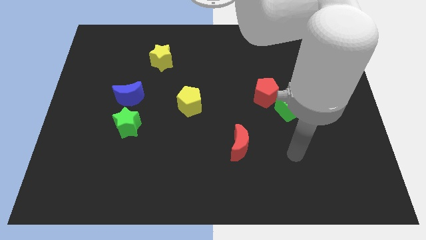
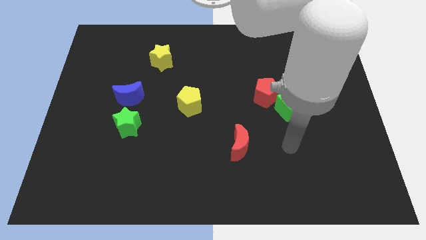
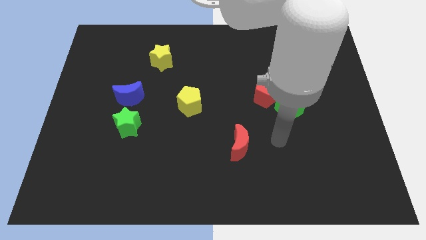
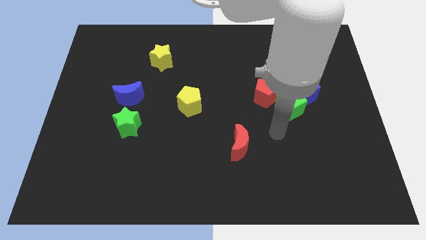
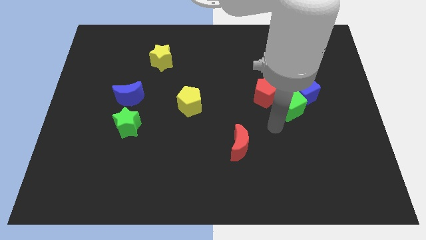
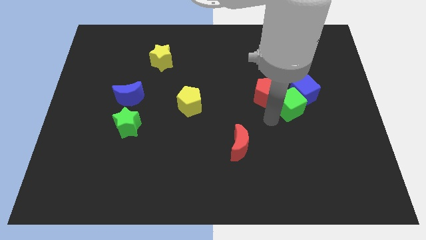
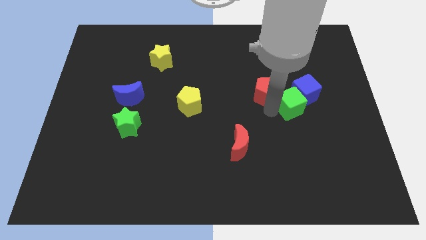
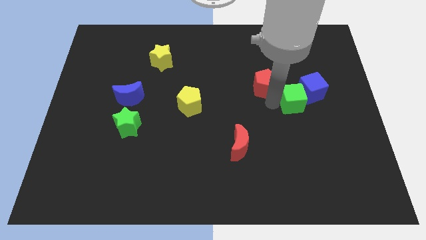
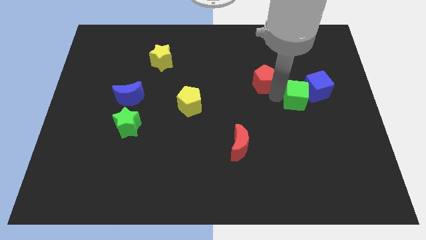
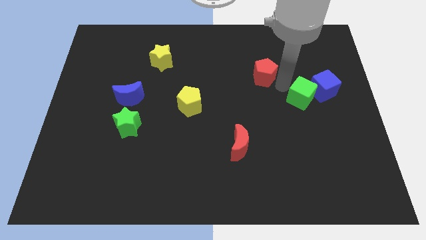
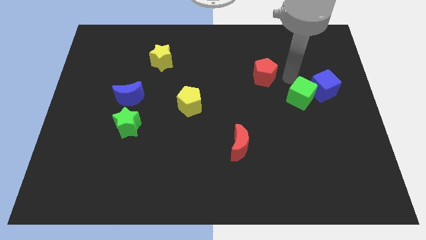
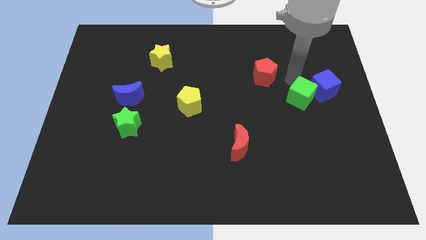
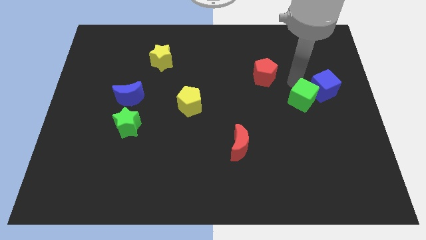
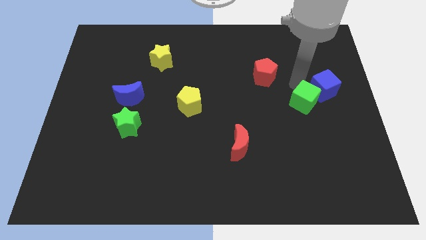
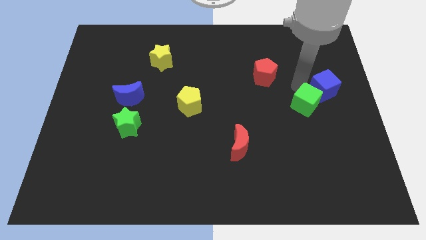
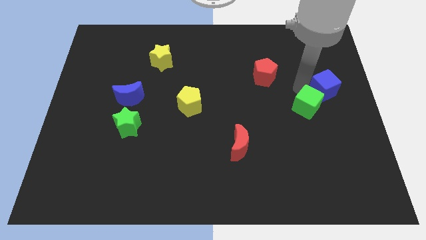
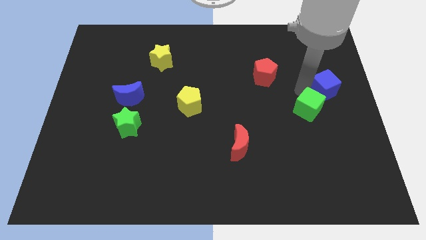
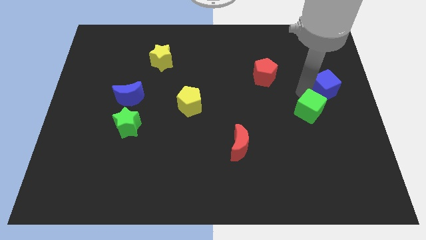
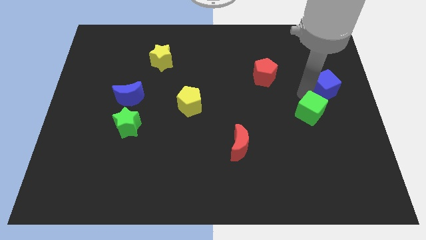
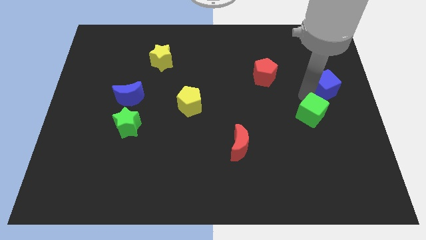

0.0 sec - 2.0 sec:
pull the green cube apart from the blue cube and red pentagon

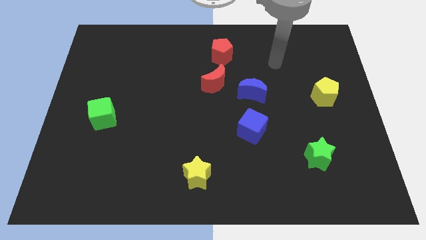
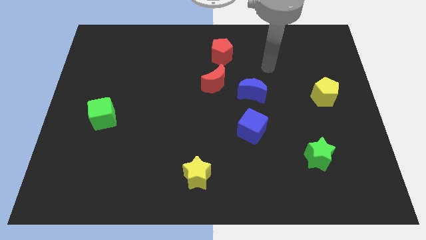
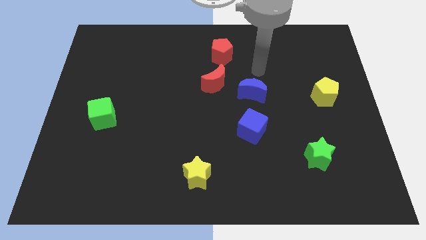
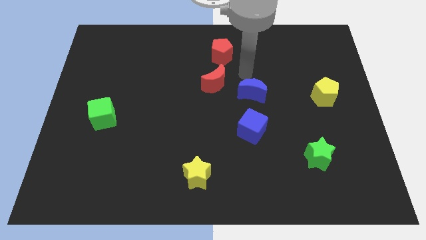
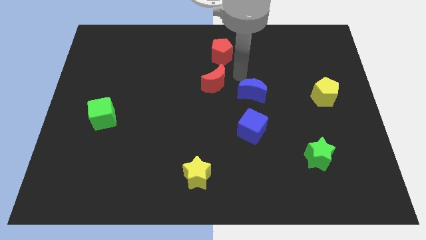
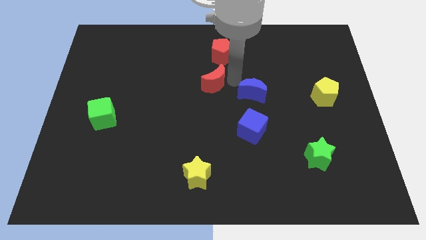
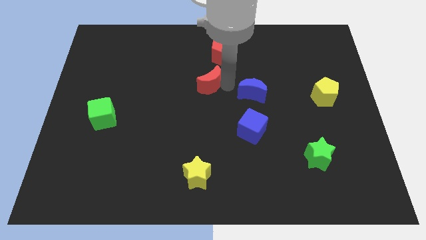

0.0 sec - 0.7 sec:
move the blue moon away from the red moon

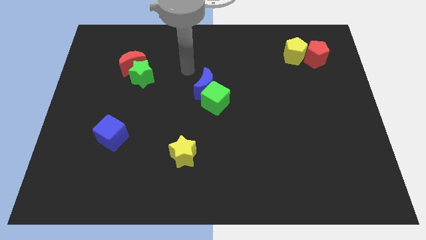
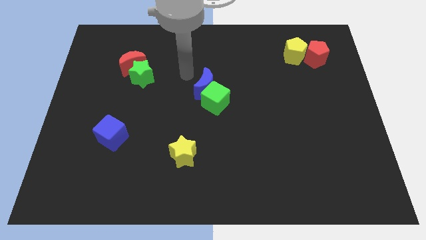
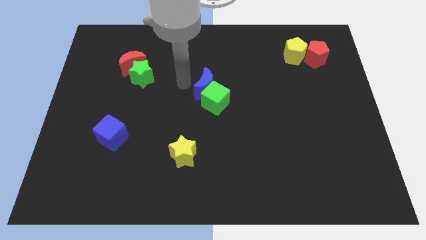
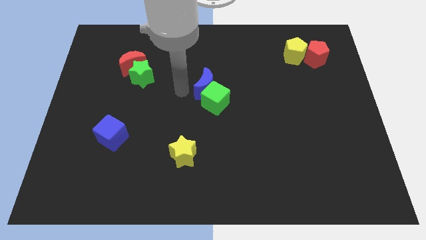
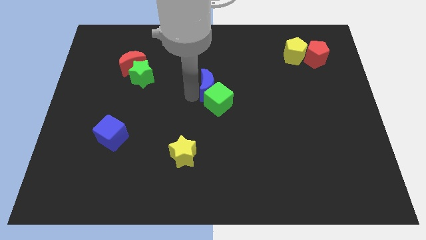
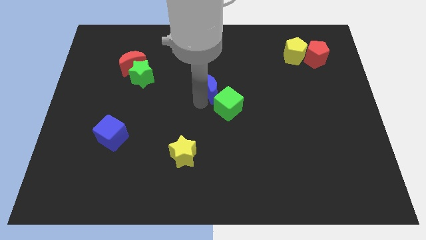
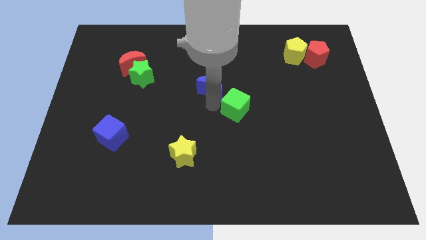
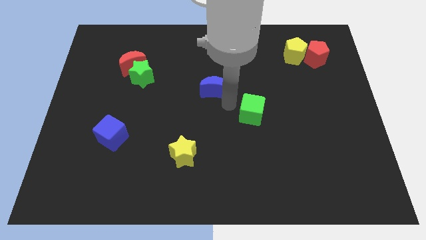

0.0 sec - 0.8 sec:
move the blue moon away from the green cube

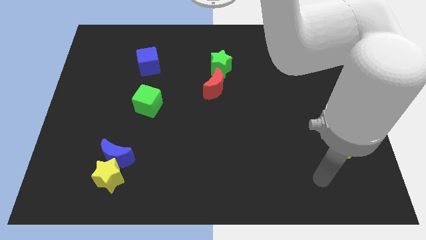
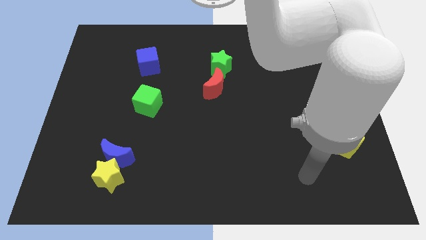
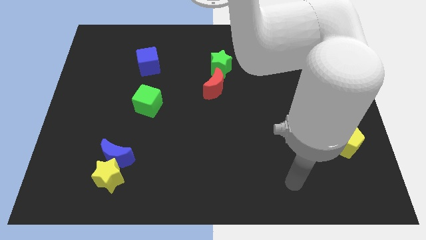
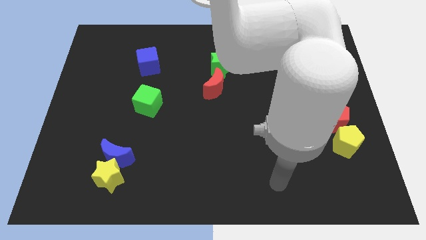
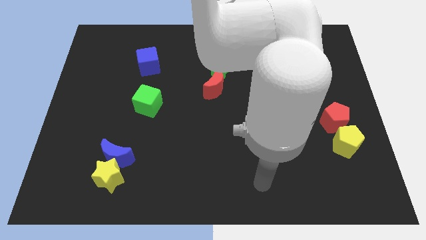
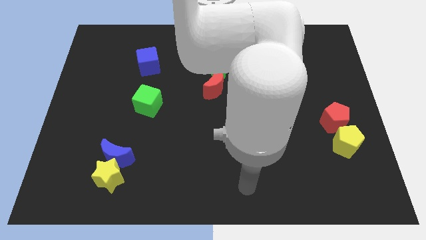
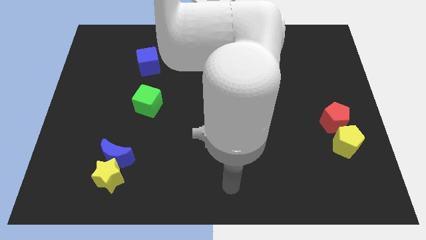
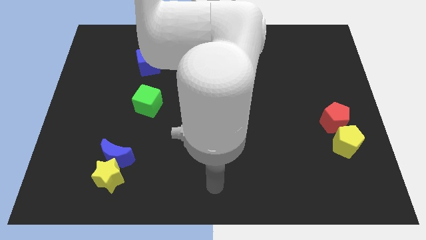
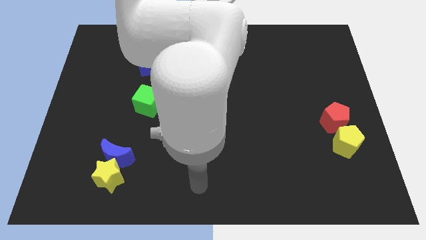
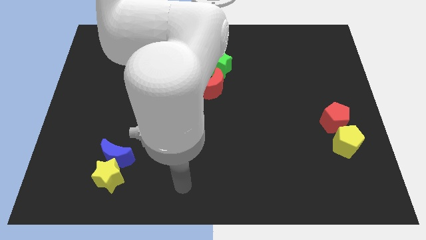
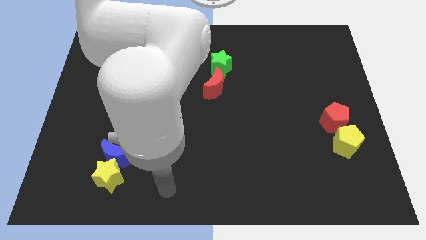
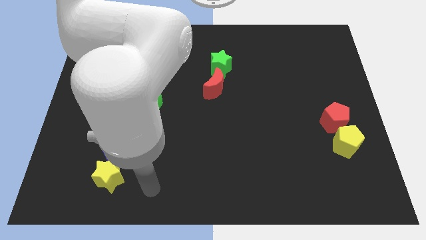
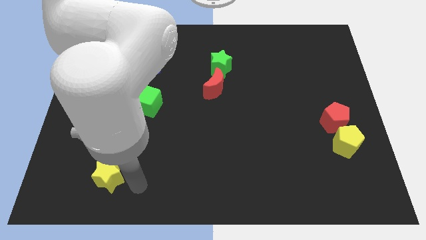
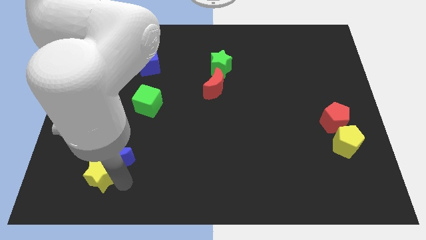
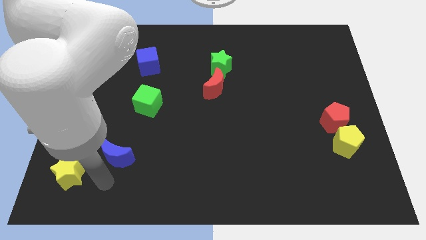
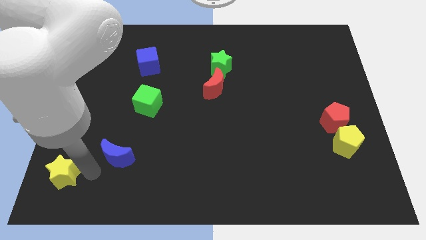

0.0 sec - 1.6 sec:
move the blue moon away from the yellow star

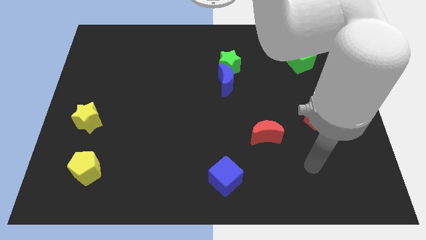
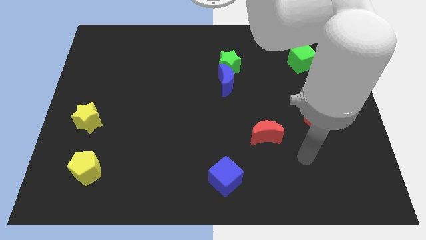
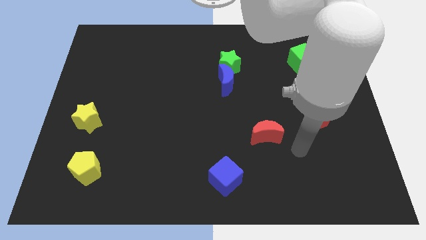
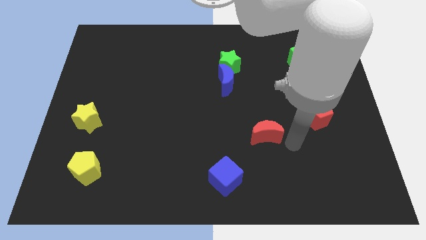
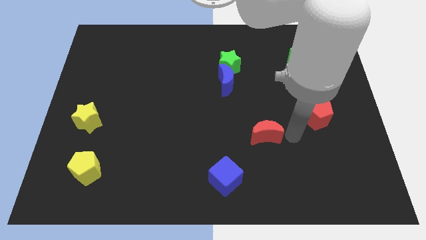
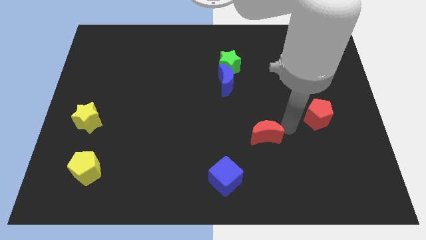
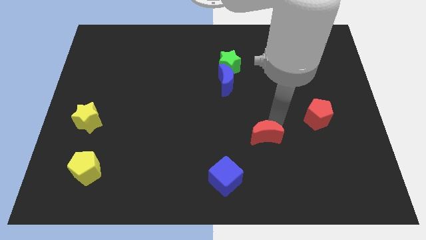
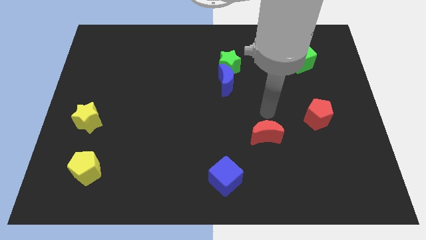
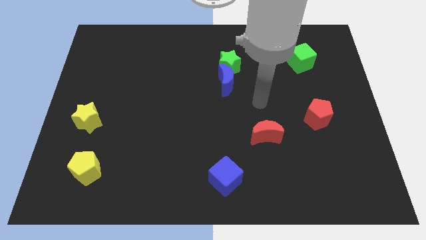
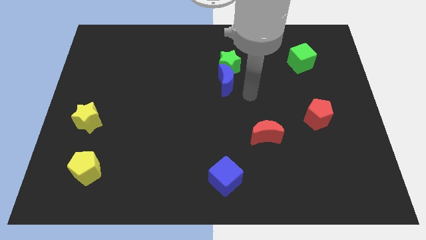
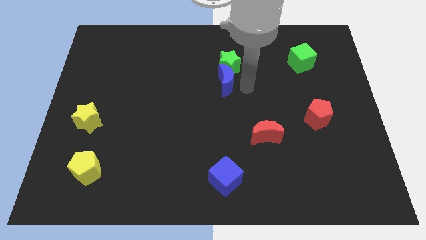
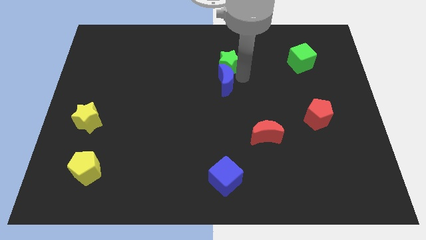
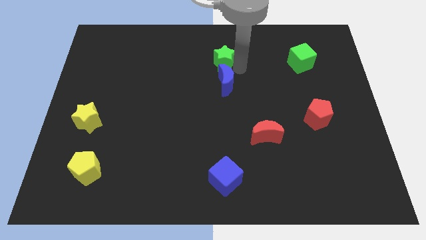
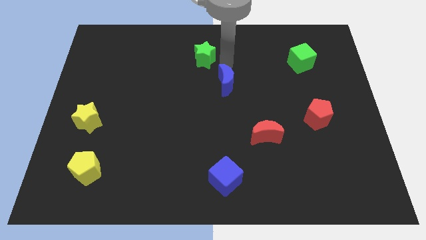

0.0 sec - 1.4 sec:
separate the blue moon from the green star

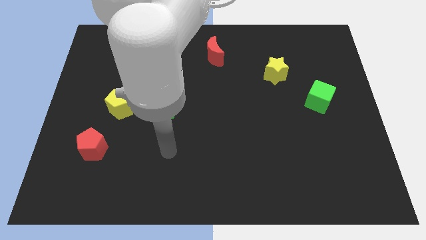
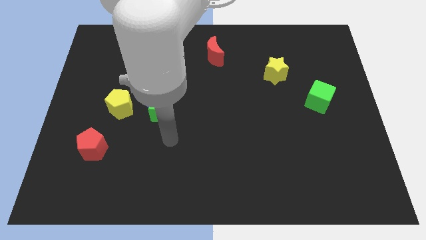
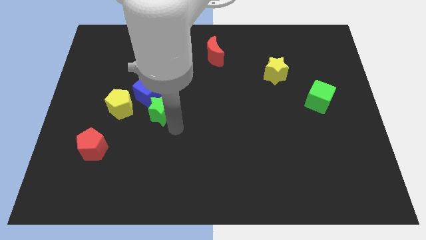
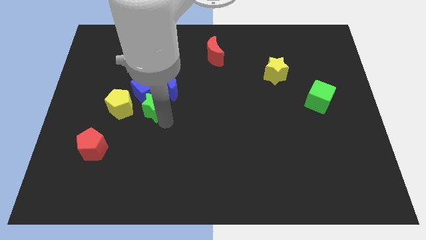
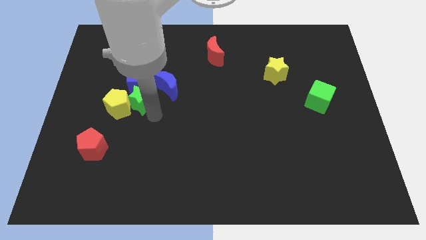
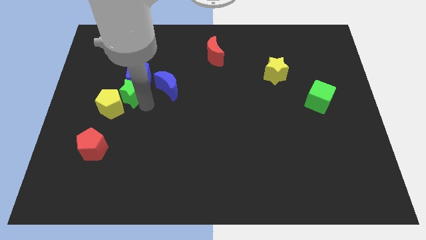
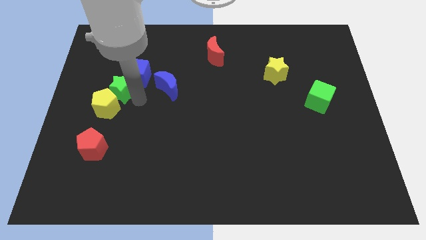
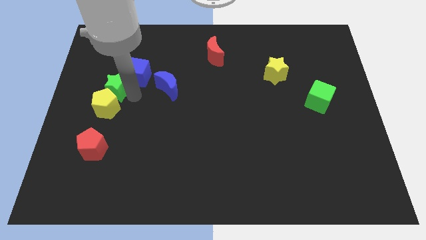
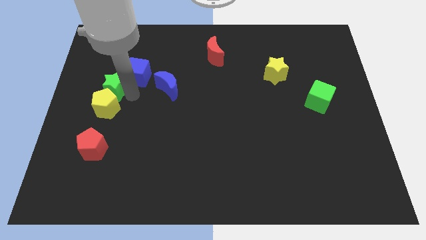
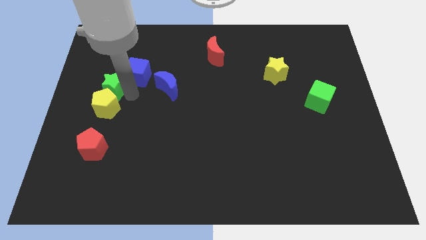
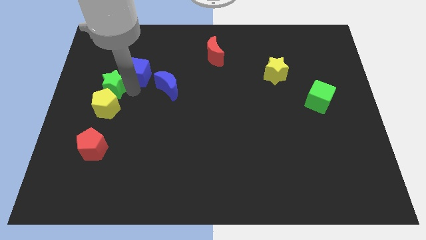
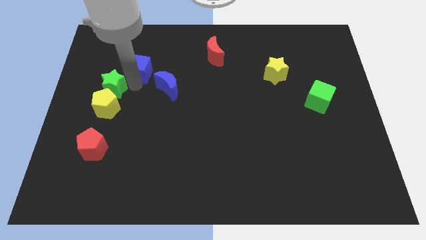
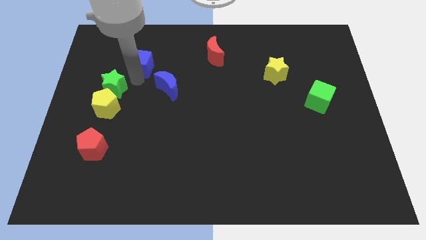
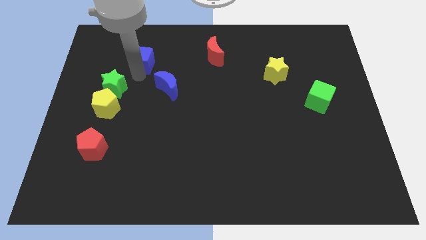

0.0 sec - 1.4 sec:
move the blue cube away from the clump

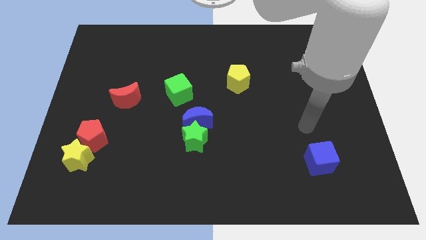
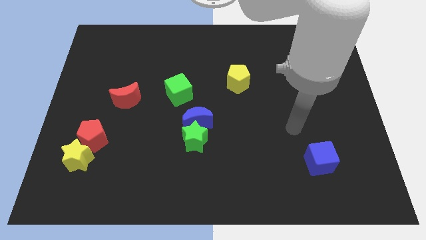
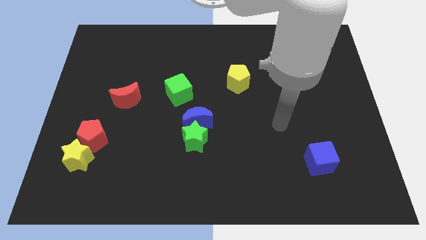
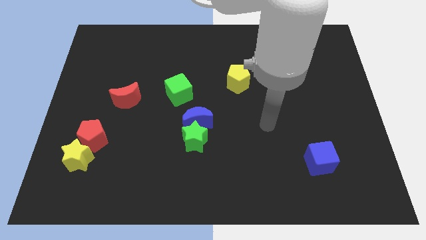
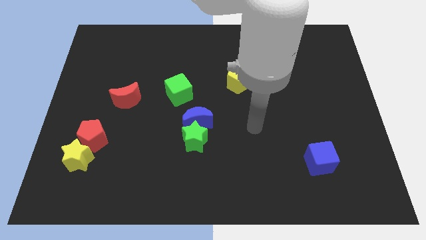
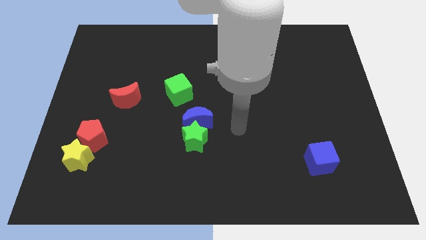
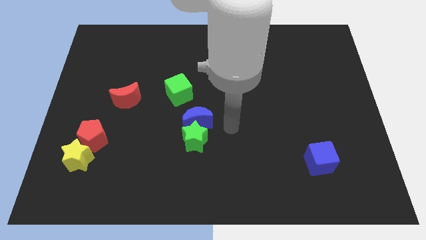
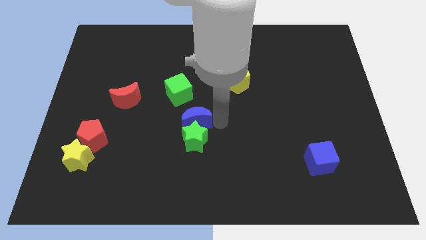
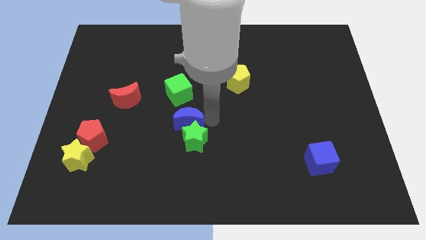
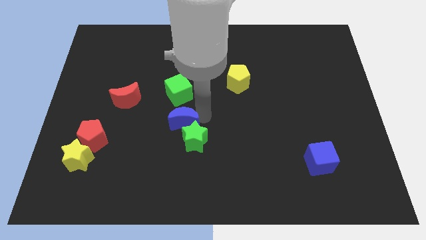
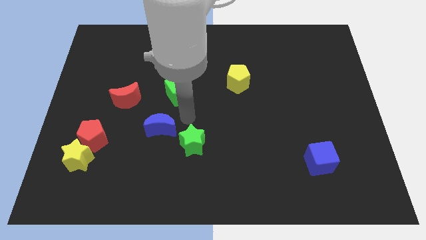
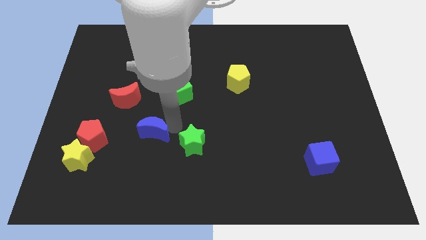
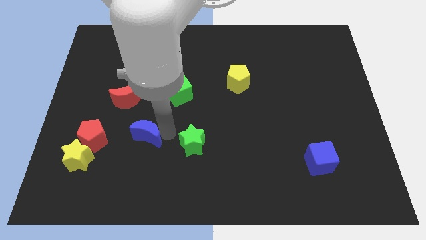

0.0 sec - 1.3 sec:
move the green star away from the blue moon

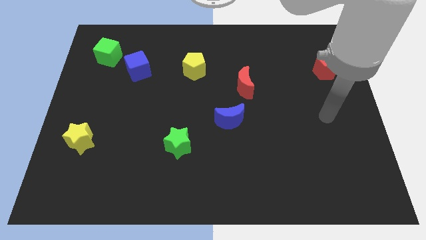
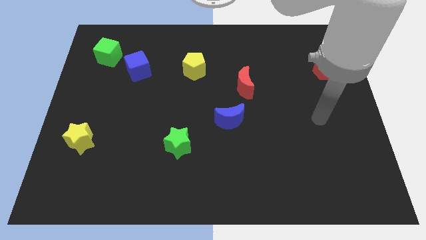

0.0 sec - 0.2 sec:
move the blue cube away from the green cube
